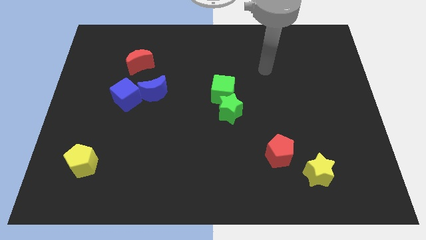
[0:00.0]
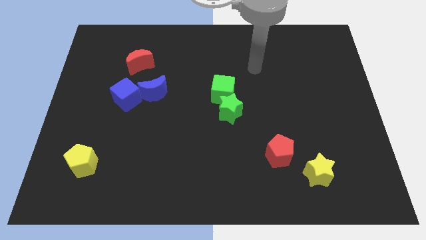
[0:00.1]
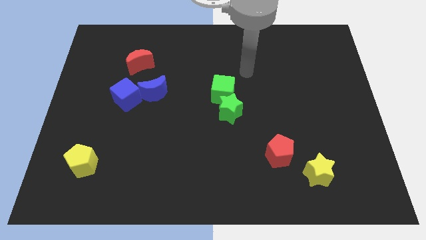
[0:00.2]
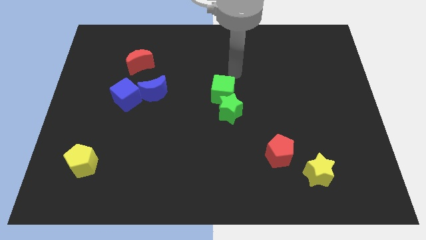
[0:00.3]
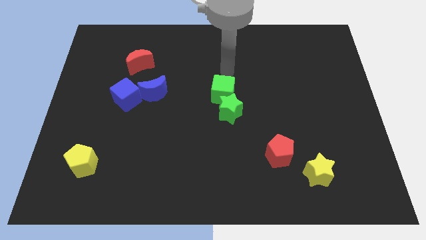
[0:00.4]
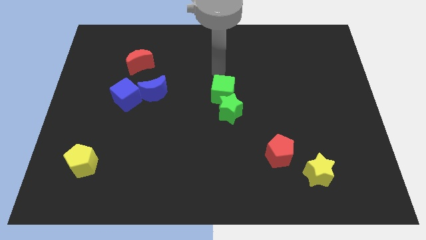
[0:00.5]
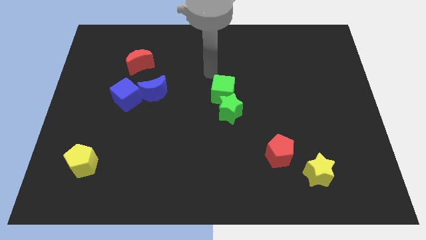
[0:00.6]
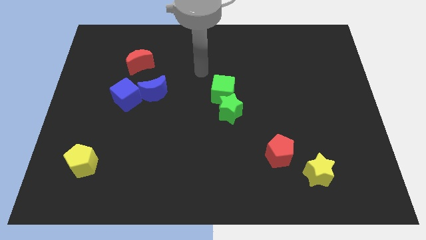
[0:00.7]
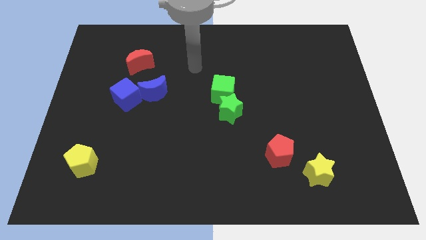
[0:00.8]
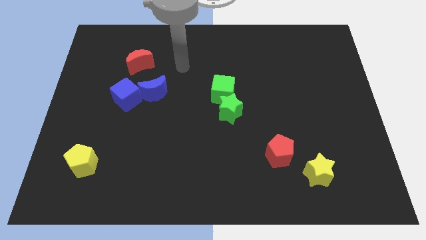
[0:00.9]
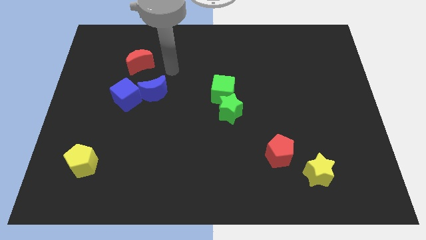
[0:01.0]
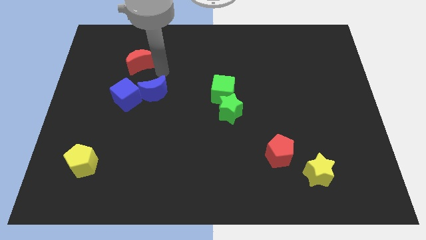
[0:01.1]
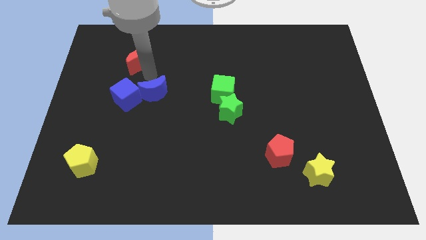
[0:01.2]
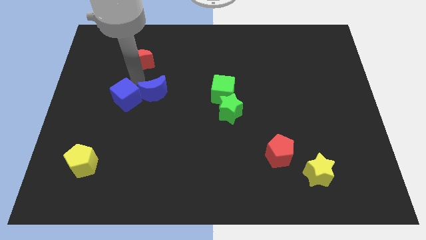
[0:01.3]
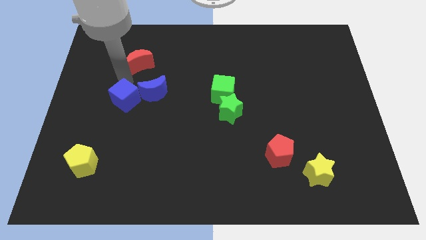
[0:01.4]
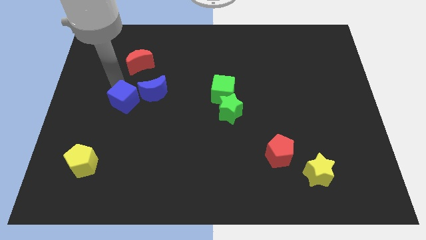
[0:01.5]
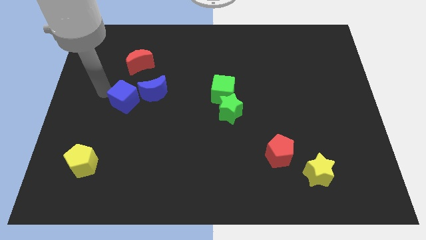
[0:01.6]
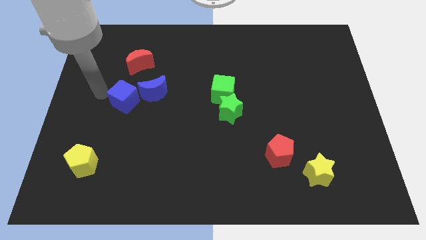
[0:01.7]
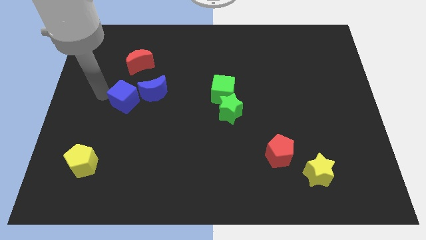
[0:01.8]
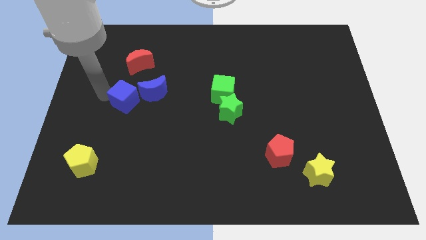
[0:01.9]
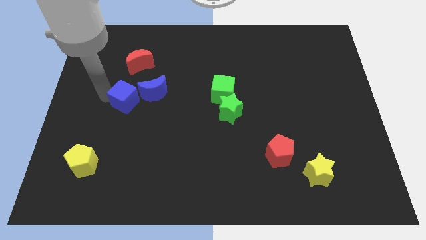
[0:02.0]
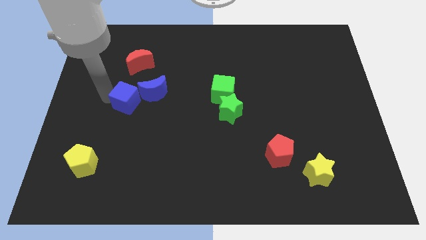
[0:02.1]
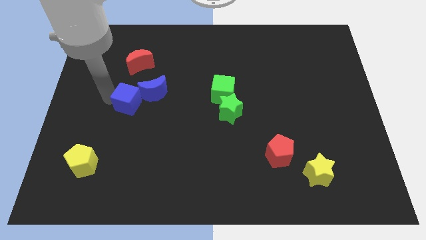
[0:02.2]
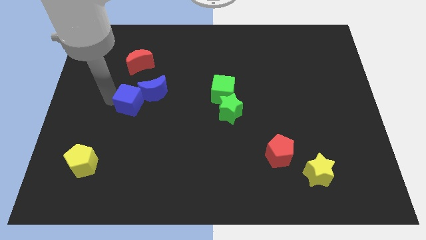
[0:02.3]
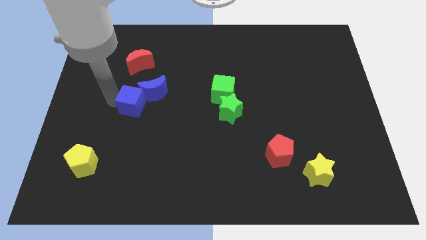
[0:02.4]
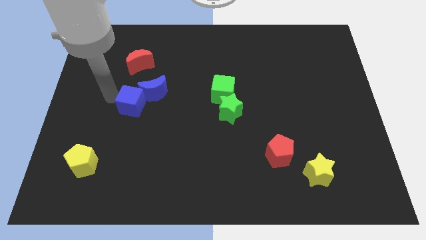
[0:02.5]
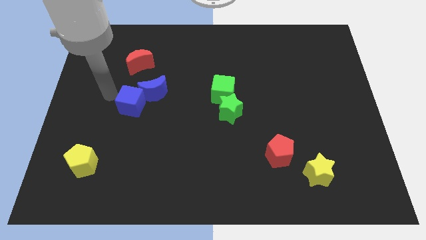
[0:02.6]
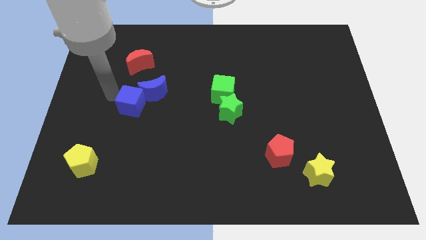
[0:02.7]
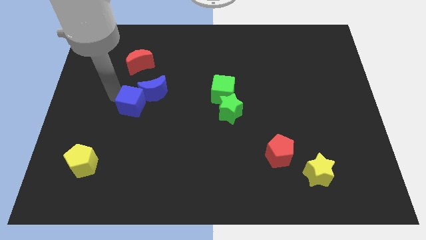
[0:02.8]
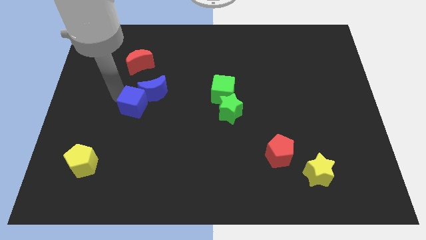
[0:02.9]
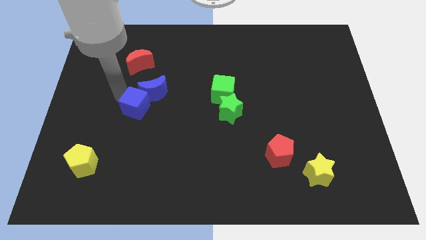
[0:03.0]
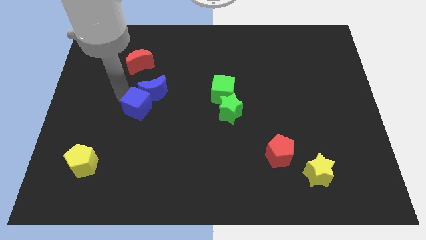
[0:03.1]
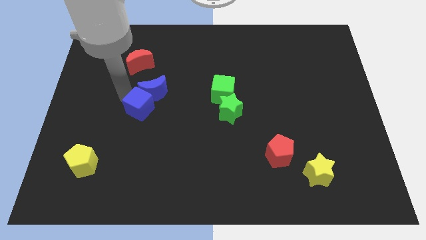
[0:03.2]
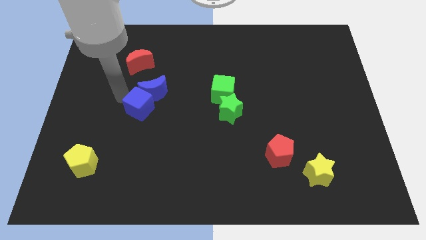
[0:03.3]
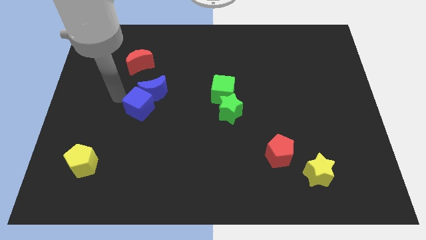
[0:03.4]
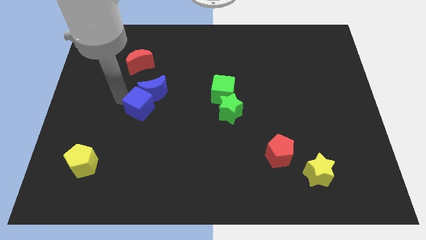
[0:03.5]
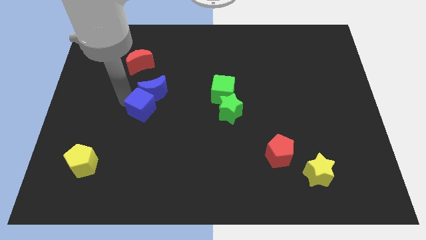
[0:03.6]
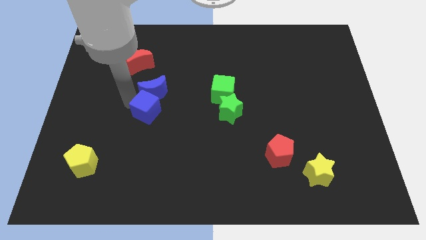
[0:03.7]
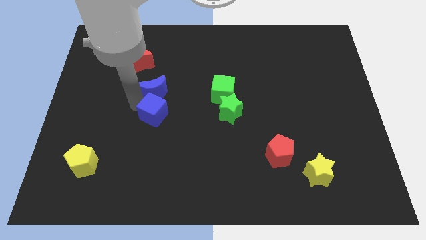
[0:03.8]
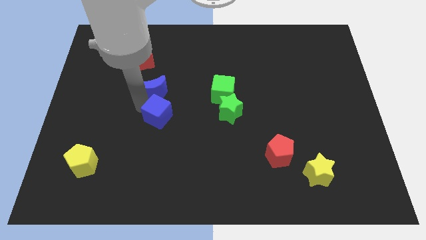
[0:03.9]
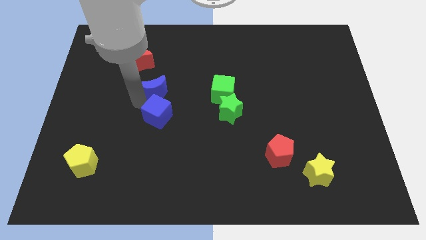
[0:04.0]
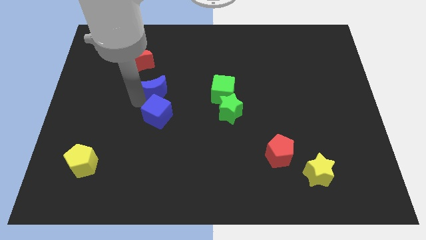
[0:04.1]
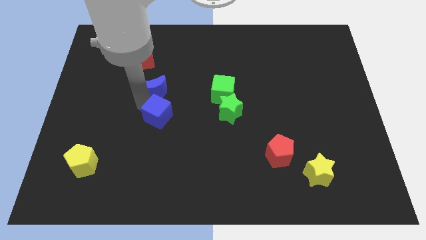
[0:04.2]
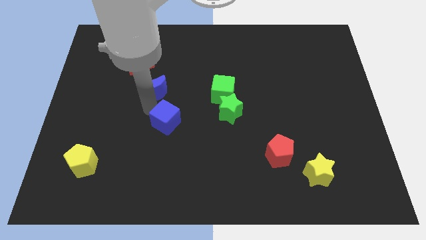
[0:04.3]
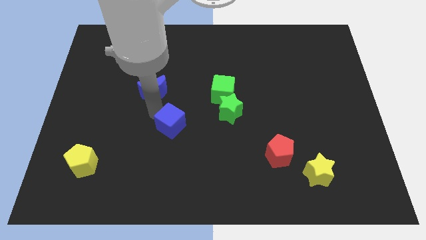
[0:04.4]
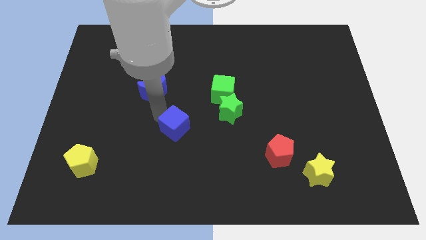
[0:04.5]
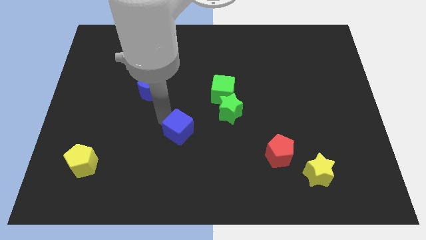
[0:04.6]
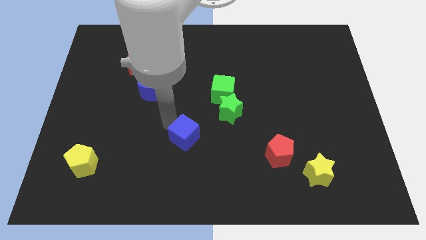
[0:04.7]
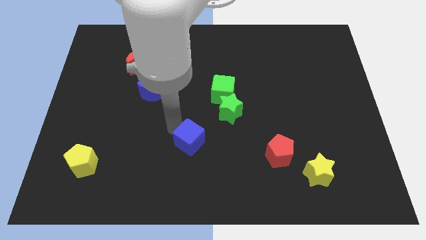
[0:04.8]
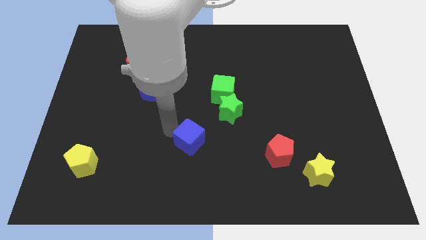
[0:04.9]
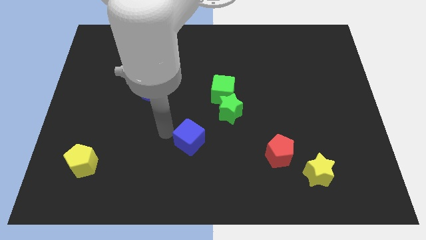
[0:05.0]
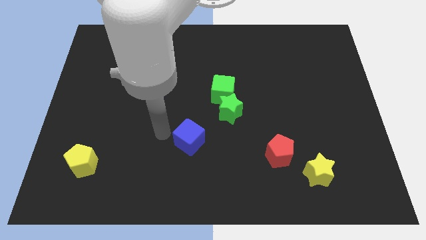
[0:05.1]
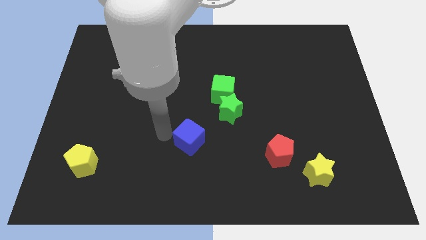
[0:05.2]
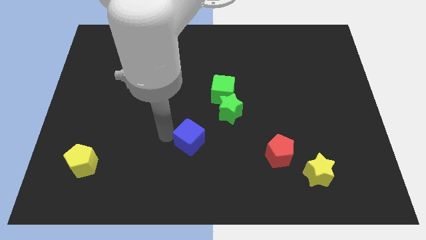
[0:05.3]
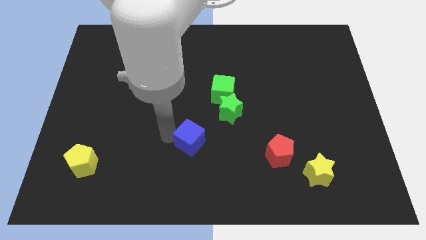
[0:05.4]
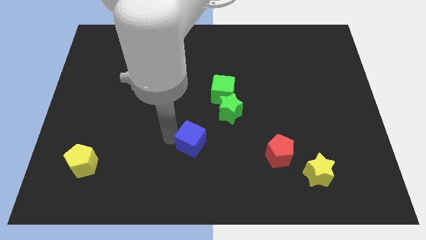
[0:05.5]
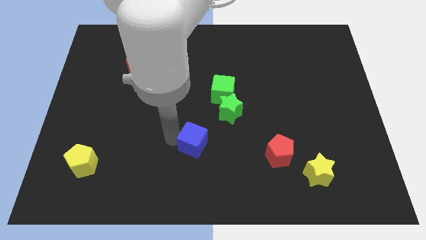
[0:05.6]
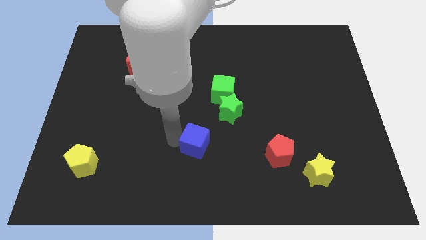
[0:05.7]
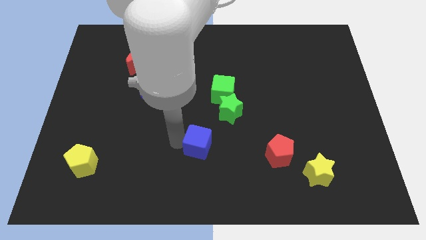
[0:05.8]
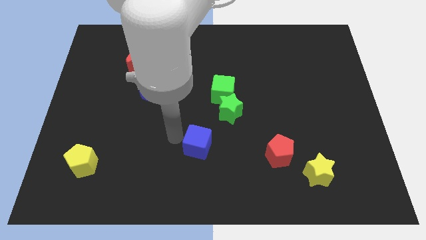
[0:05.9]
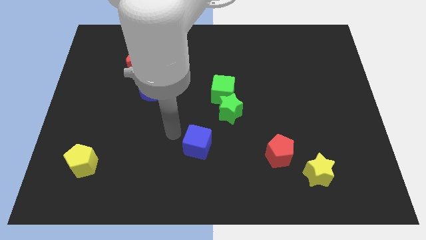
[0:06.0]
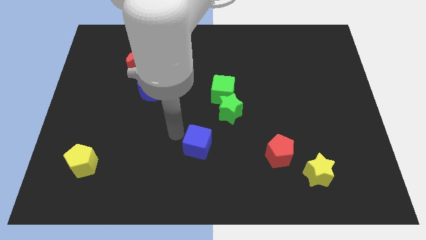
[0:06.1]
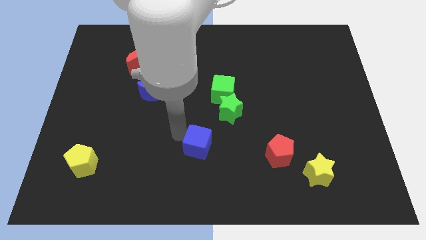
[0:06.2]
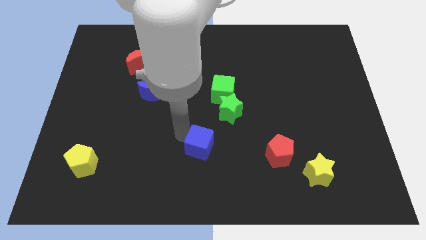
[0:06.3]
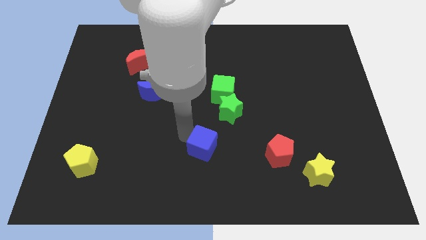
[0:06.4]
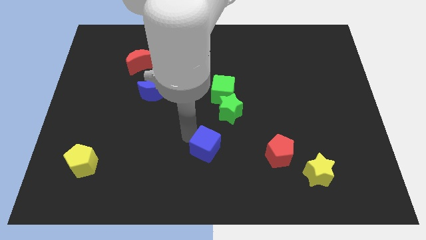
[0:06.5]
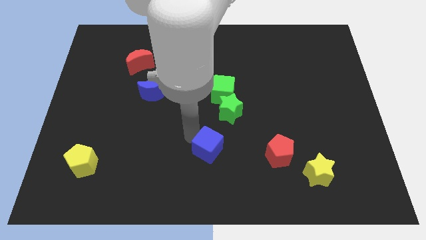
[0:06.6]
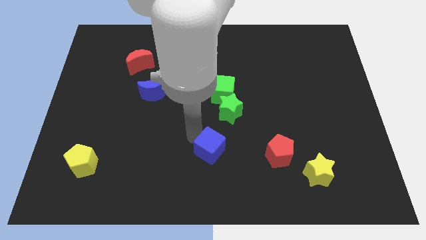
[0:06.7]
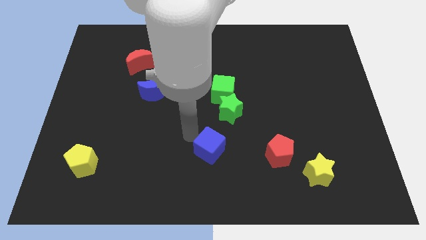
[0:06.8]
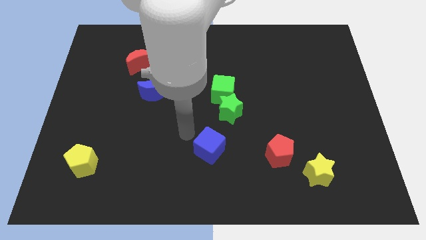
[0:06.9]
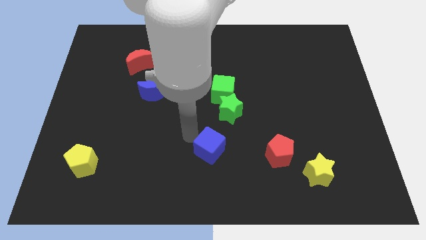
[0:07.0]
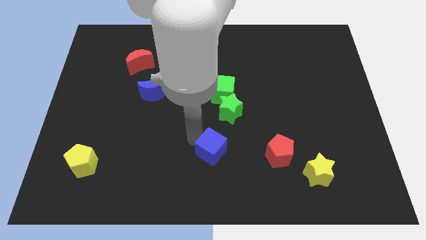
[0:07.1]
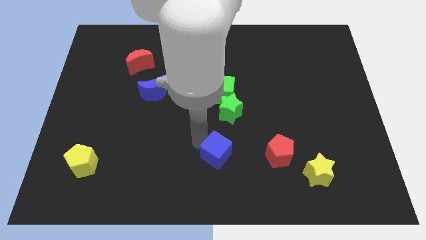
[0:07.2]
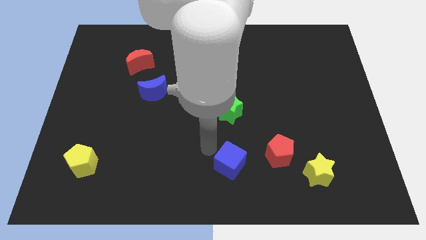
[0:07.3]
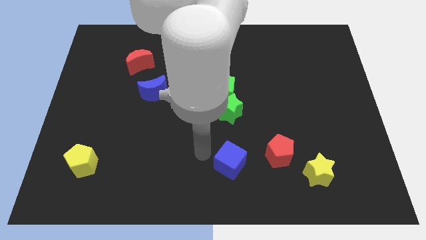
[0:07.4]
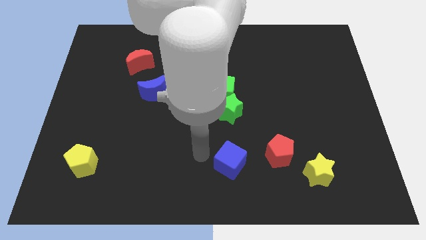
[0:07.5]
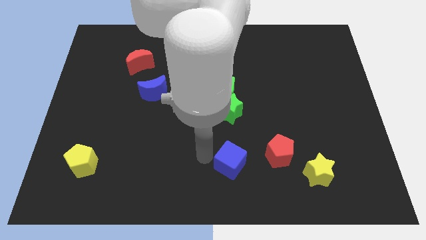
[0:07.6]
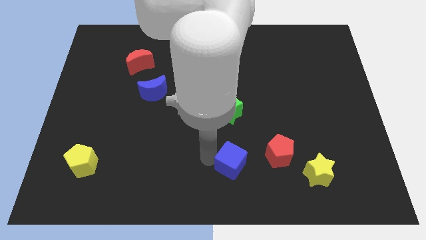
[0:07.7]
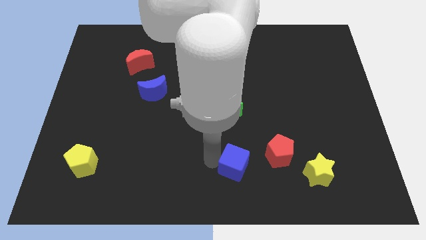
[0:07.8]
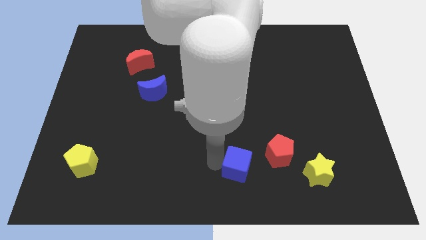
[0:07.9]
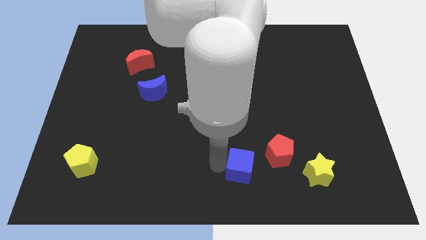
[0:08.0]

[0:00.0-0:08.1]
push the blue cube just left of the yellow star
